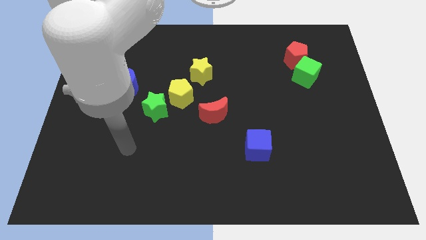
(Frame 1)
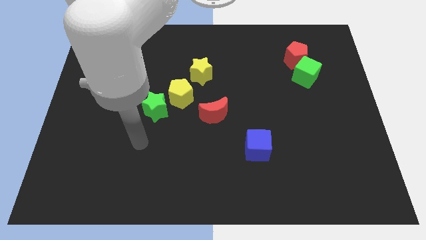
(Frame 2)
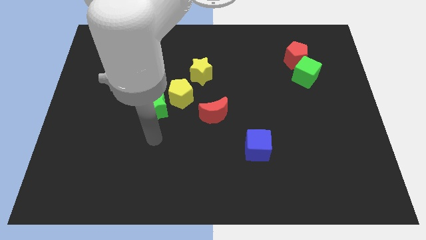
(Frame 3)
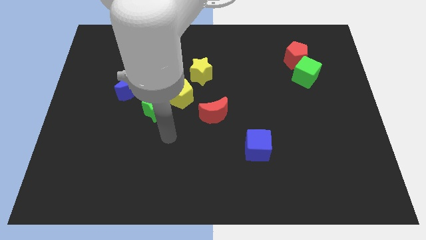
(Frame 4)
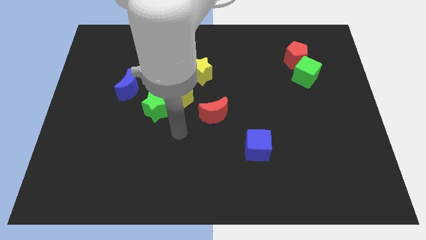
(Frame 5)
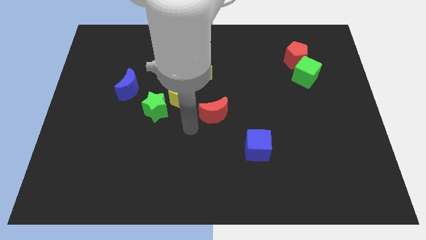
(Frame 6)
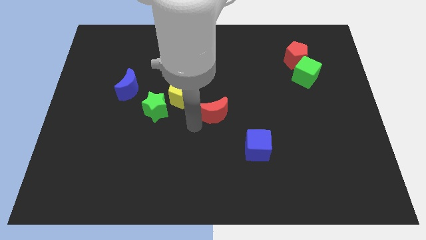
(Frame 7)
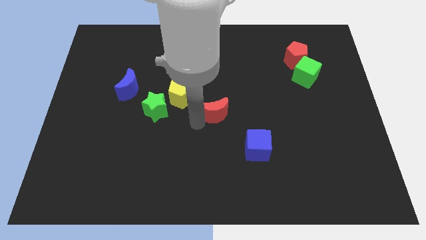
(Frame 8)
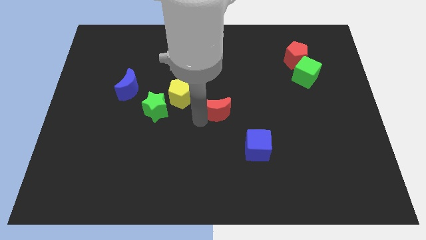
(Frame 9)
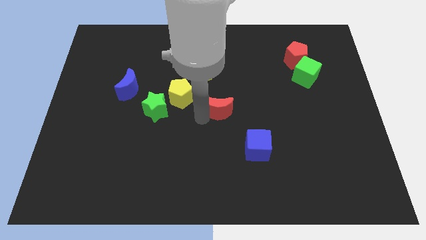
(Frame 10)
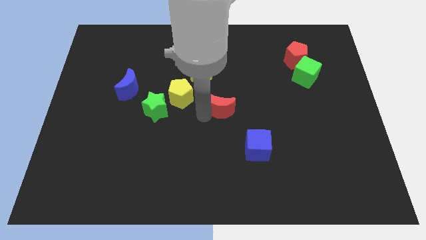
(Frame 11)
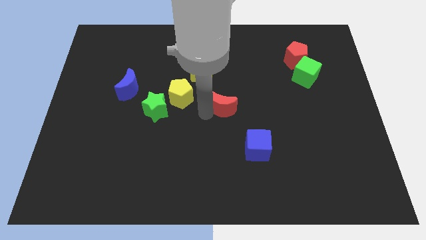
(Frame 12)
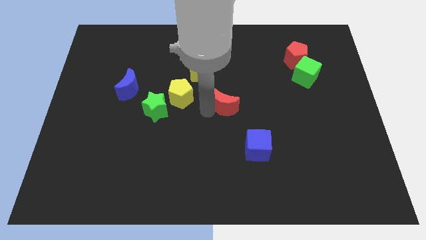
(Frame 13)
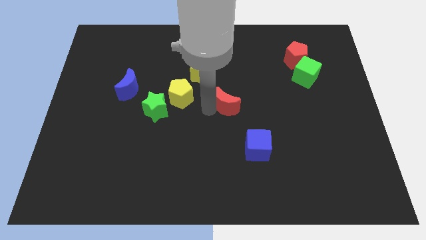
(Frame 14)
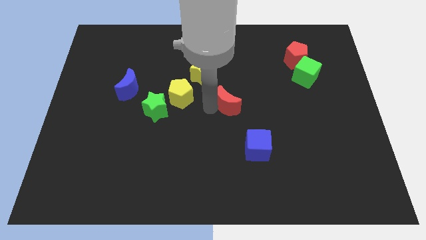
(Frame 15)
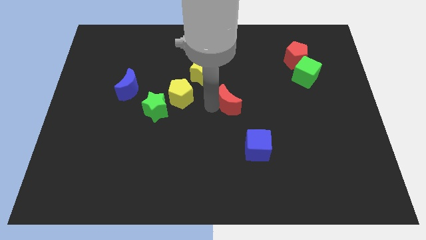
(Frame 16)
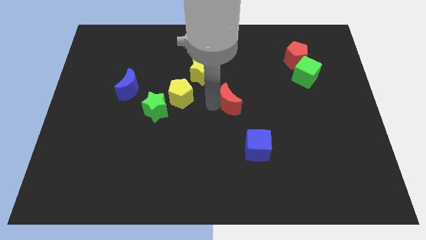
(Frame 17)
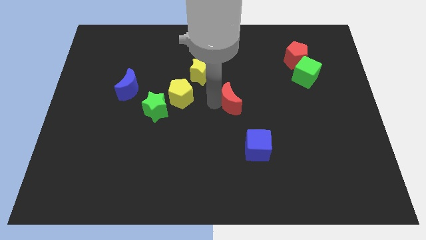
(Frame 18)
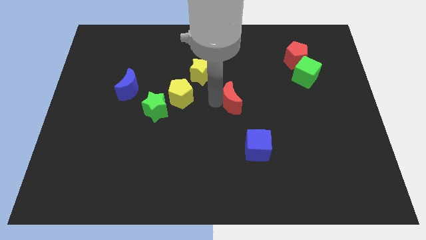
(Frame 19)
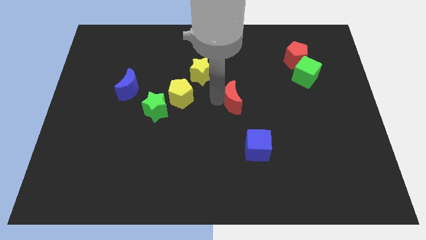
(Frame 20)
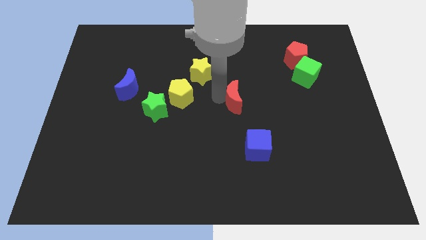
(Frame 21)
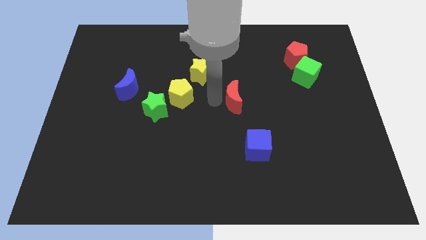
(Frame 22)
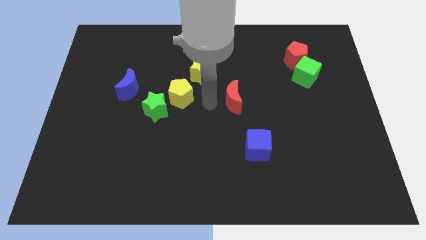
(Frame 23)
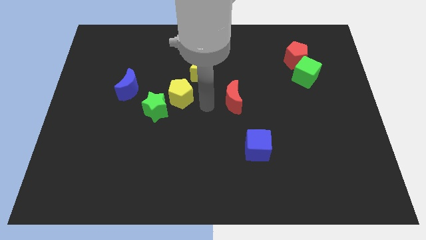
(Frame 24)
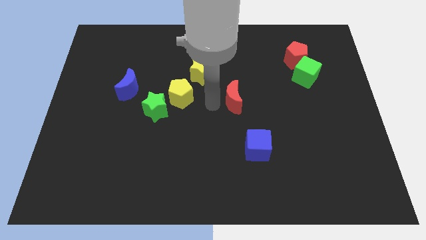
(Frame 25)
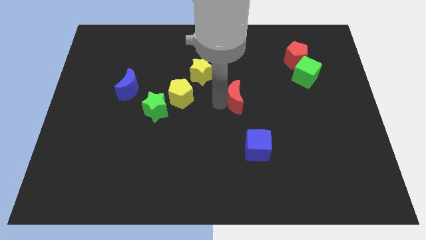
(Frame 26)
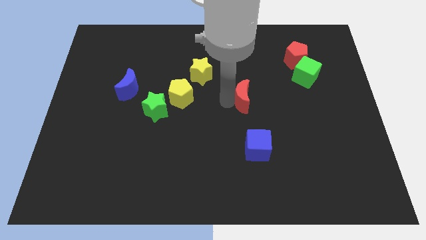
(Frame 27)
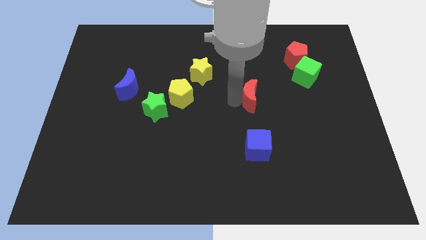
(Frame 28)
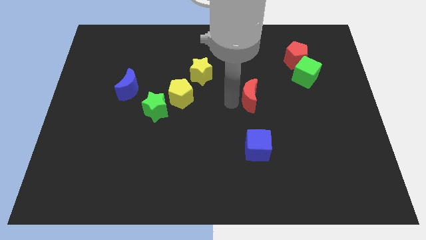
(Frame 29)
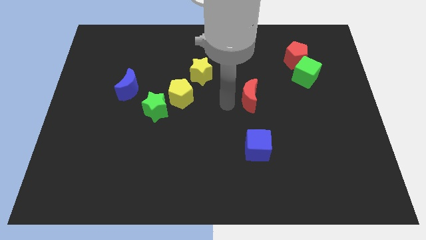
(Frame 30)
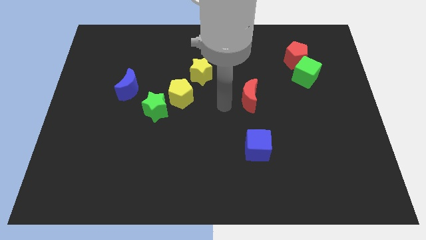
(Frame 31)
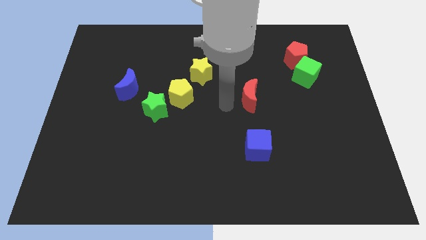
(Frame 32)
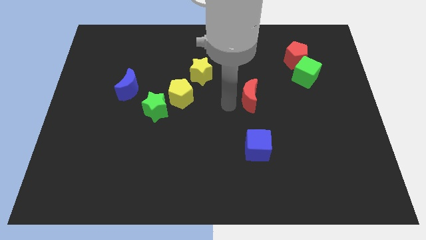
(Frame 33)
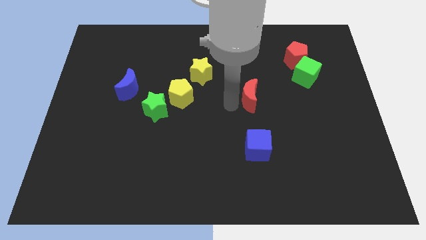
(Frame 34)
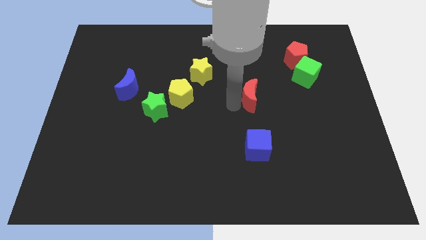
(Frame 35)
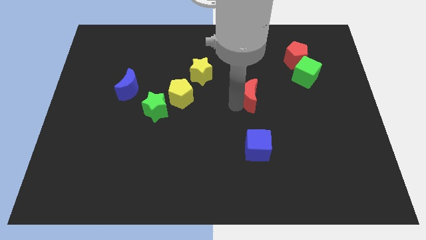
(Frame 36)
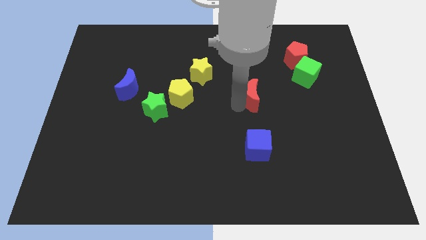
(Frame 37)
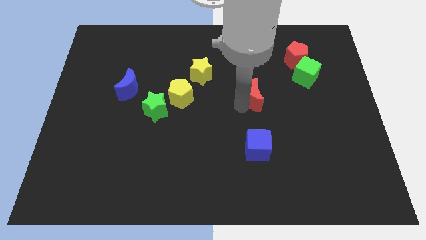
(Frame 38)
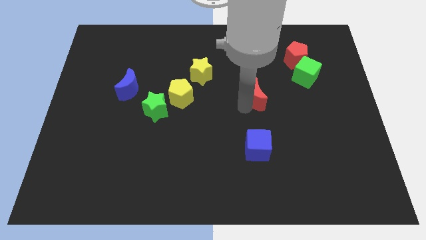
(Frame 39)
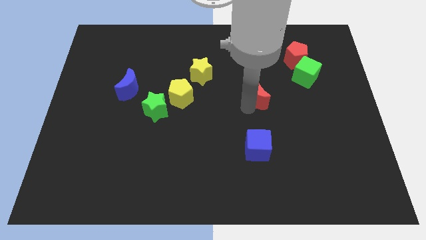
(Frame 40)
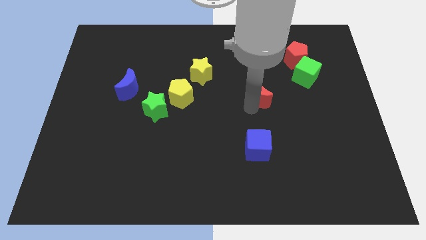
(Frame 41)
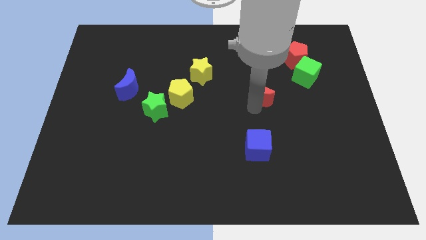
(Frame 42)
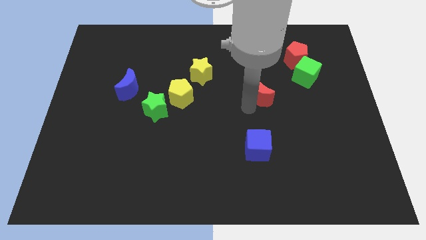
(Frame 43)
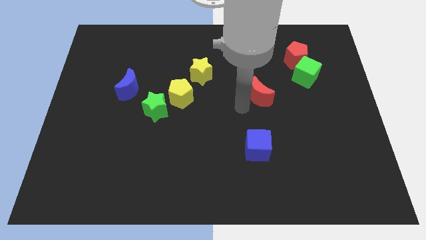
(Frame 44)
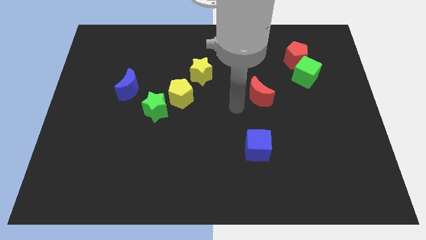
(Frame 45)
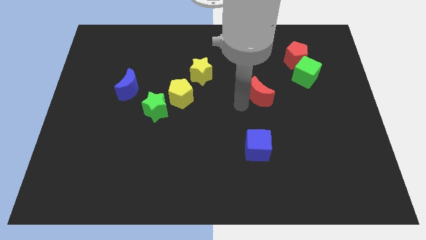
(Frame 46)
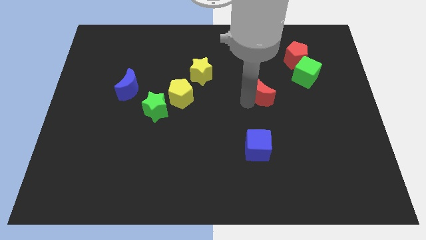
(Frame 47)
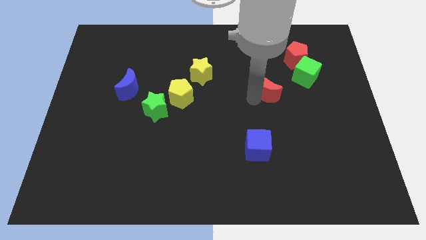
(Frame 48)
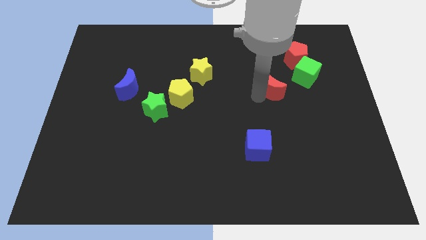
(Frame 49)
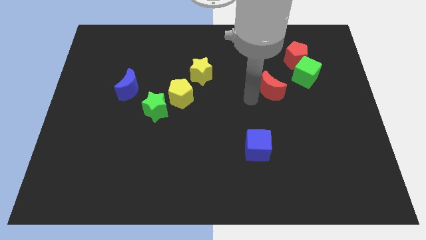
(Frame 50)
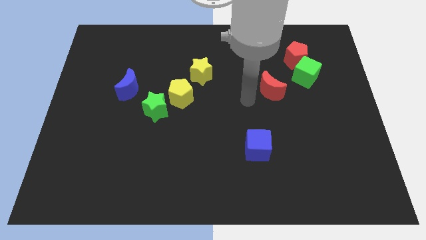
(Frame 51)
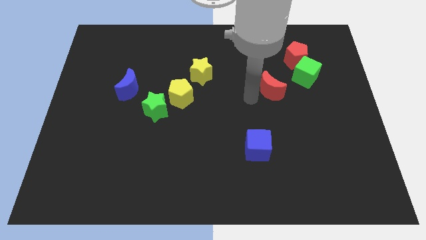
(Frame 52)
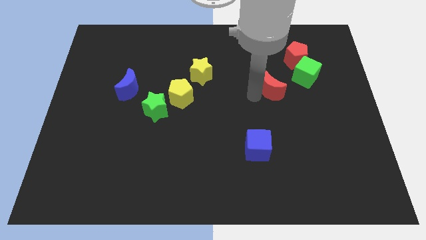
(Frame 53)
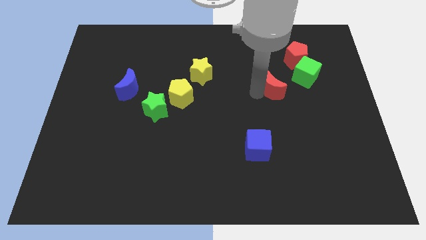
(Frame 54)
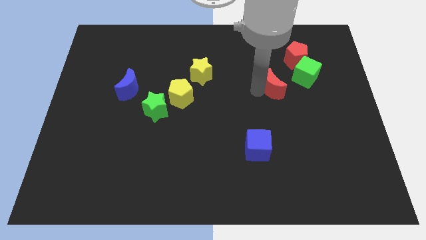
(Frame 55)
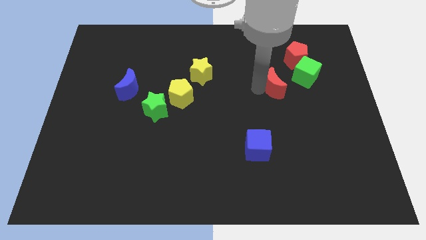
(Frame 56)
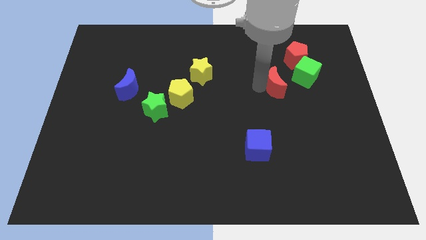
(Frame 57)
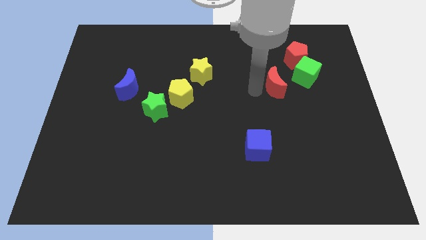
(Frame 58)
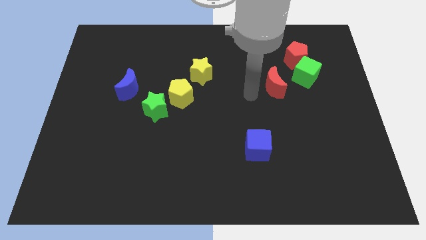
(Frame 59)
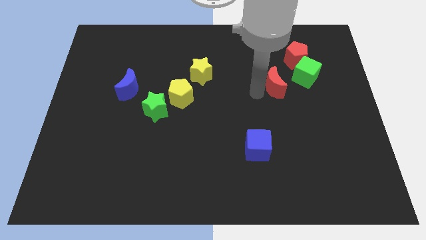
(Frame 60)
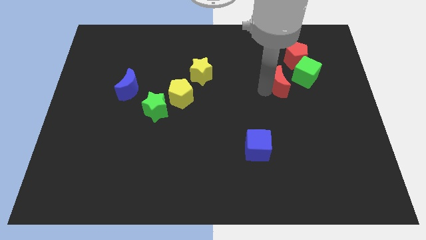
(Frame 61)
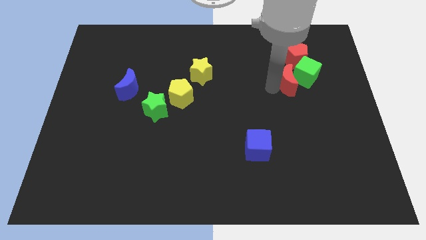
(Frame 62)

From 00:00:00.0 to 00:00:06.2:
put the red moon to the green cube
